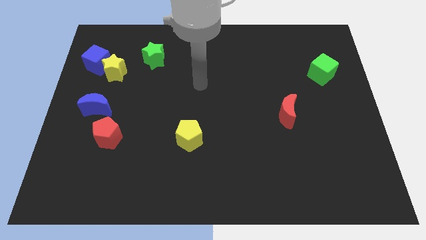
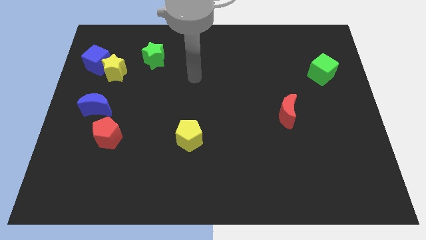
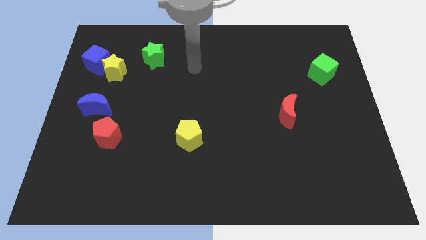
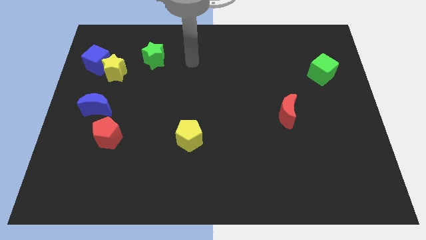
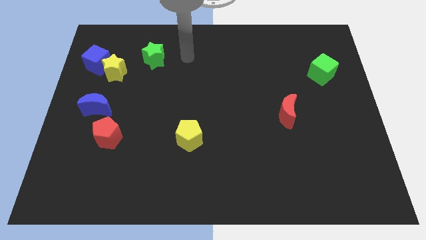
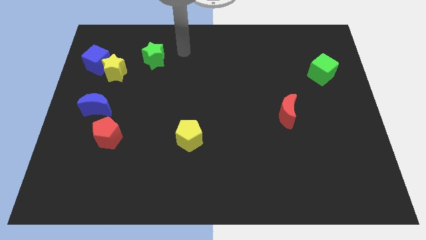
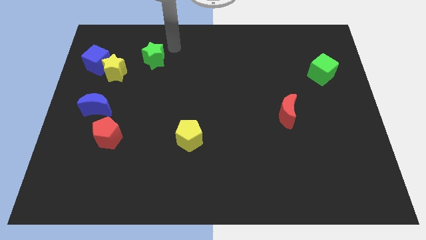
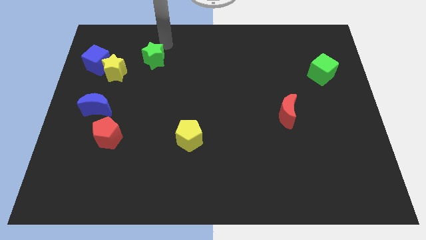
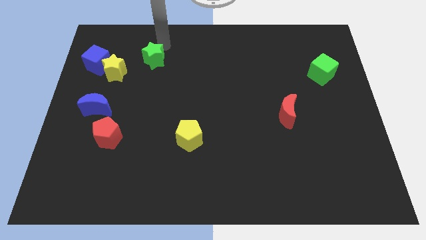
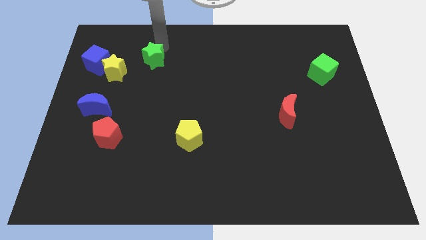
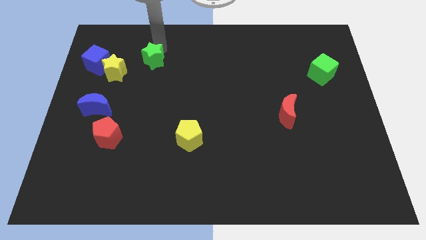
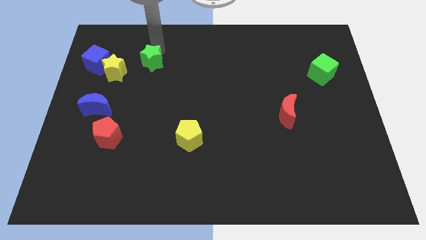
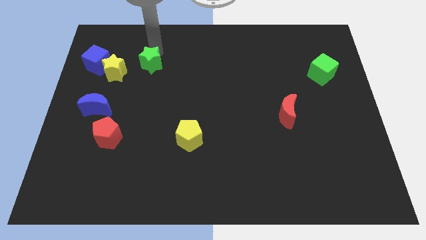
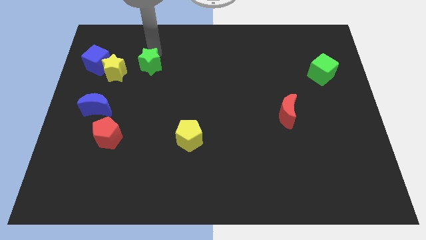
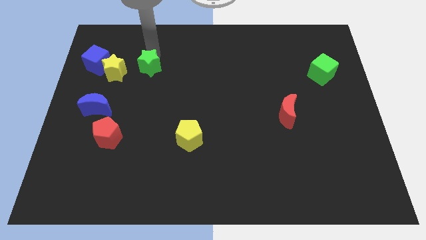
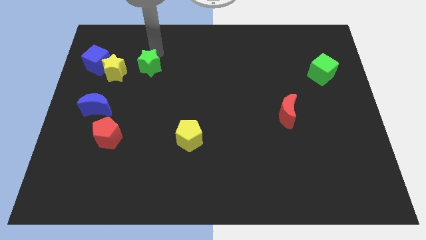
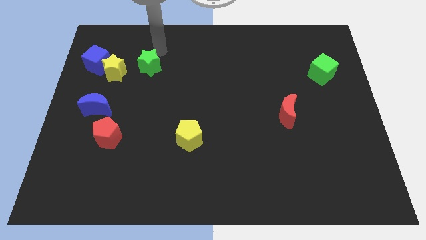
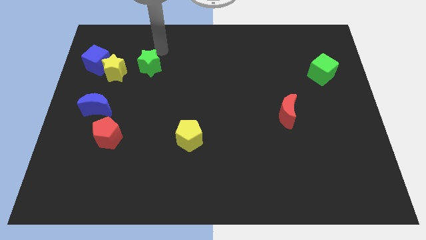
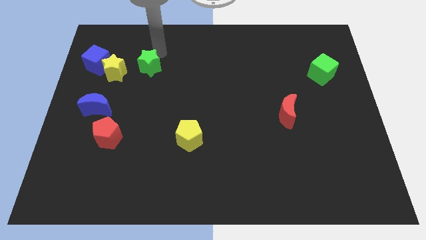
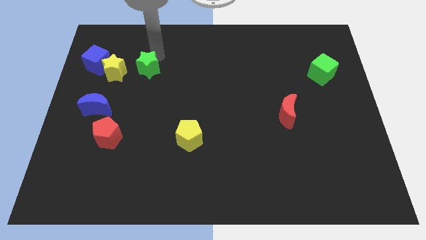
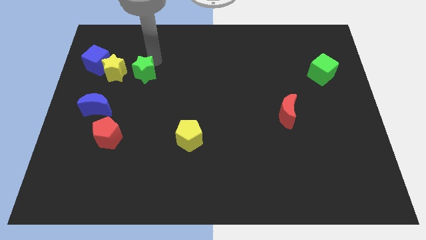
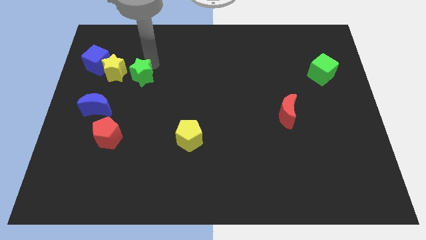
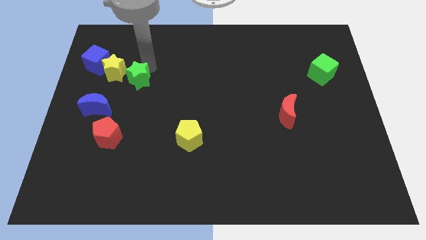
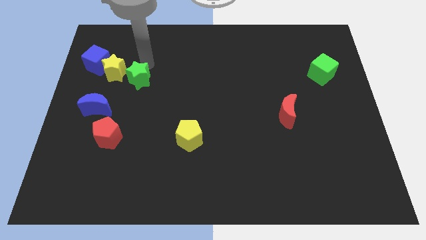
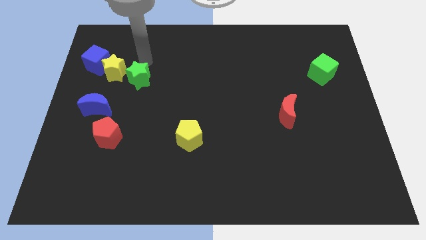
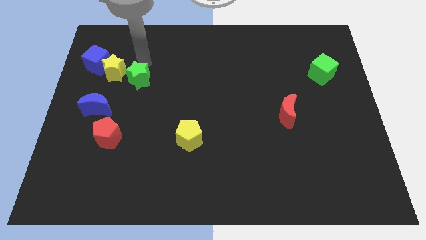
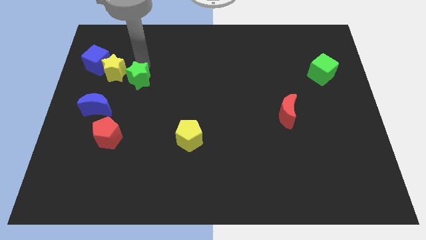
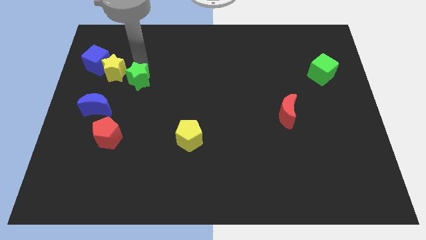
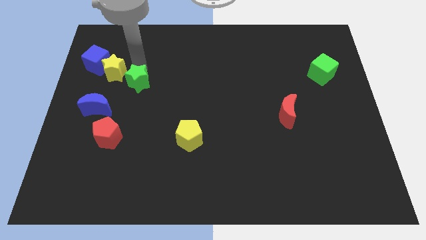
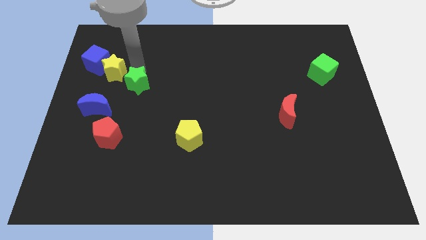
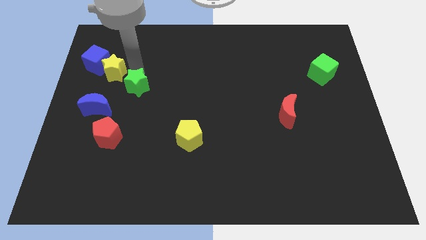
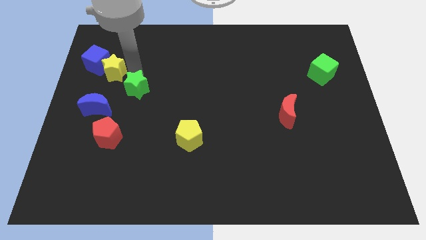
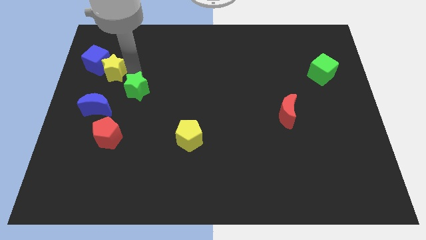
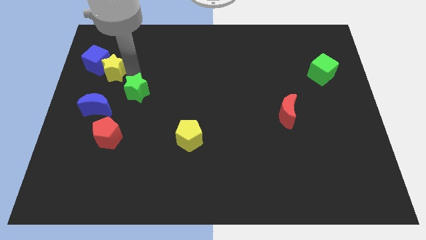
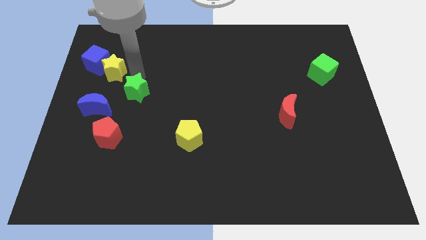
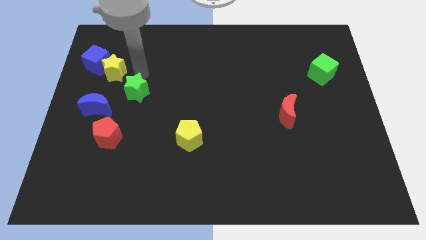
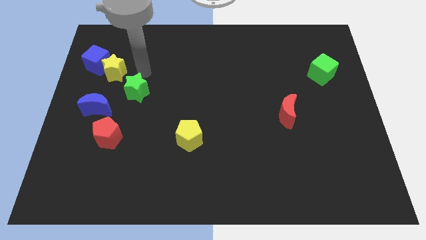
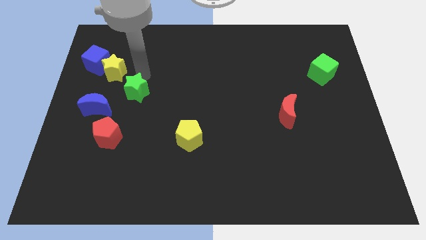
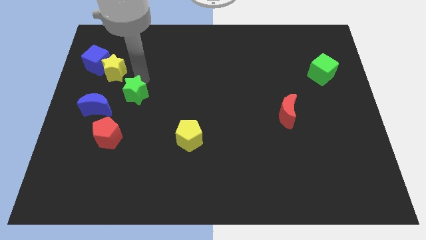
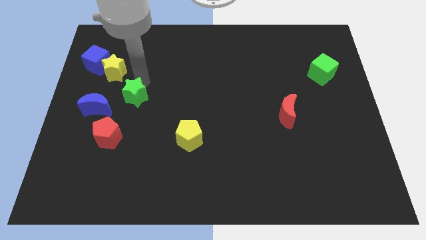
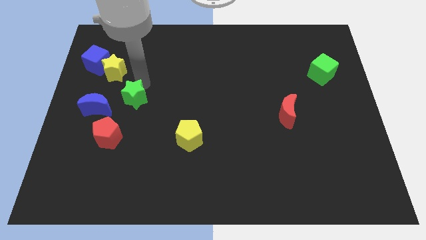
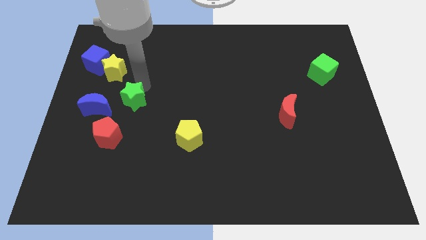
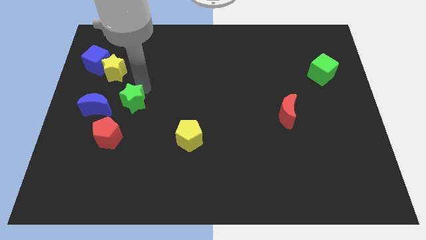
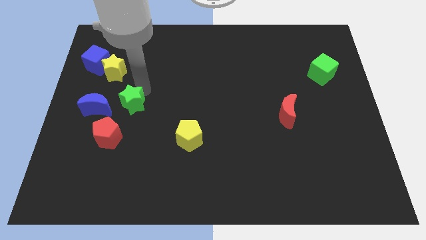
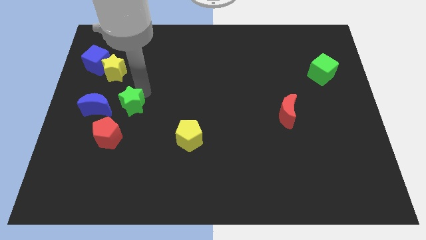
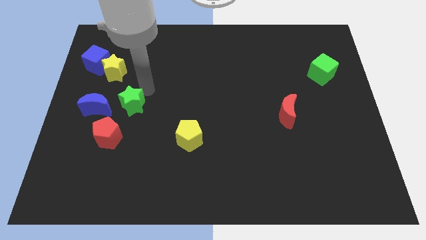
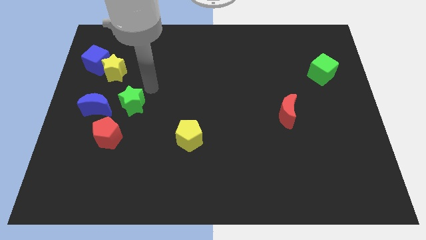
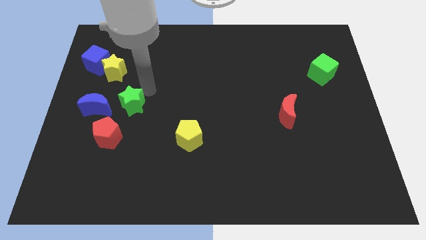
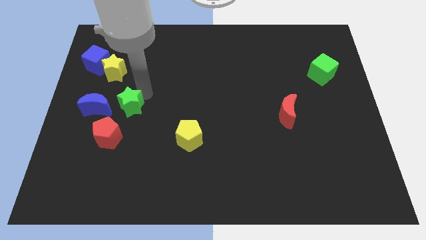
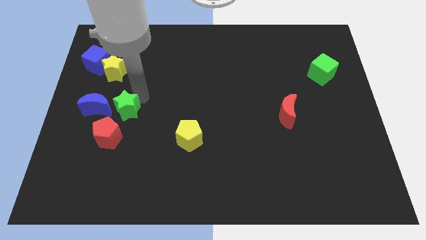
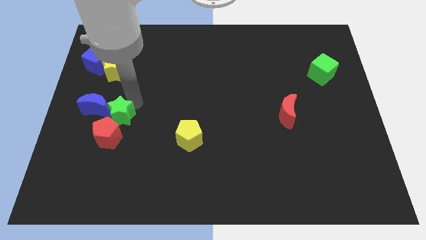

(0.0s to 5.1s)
put the green star towards the red pentagon

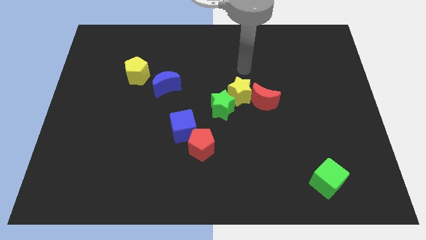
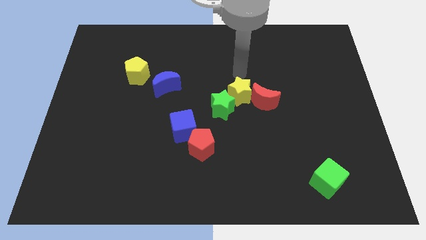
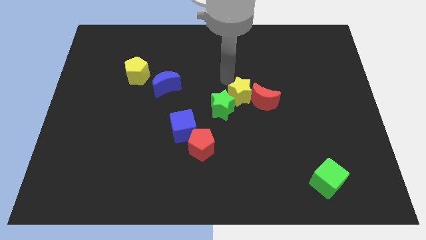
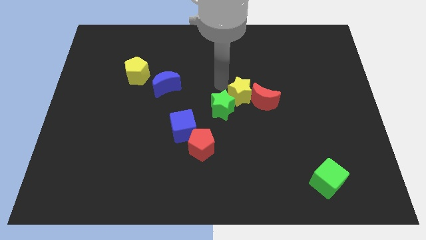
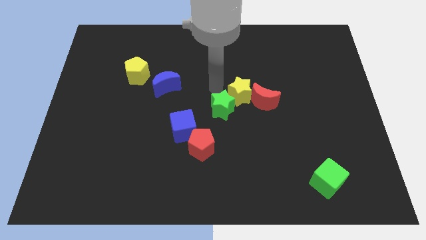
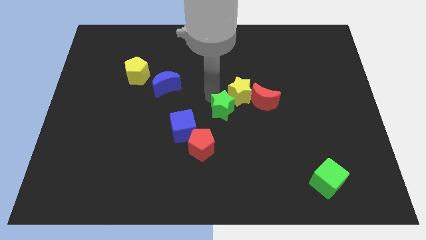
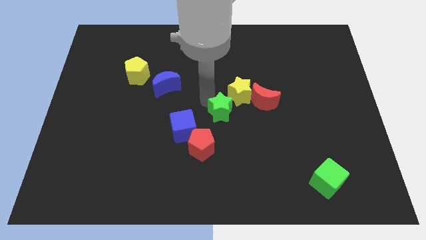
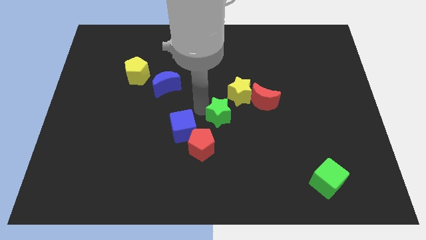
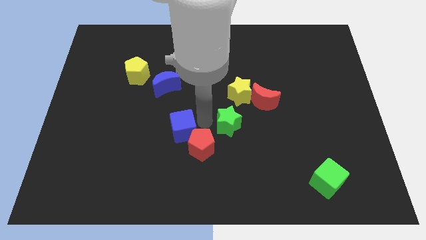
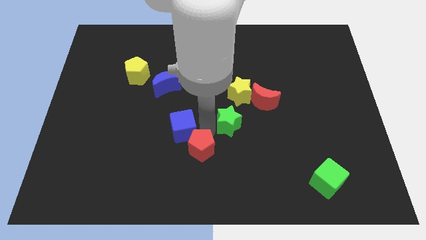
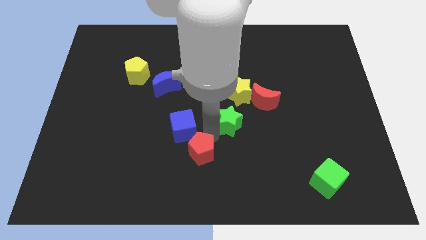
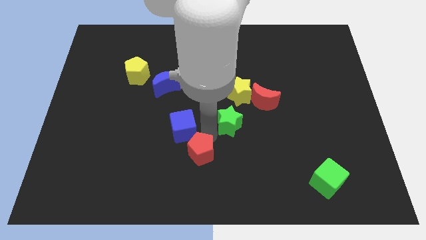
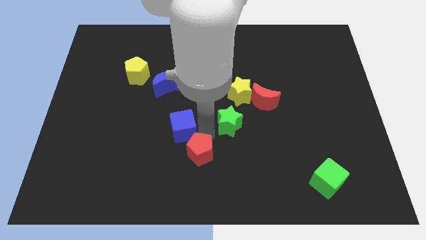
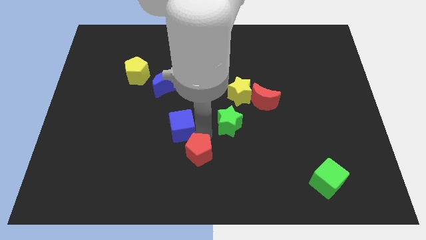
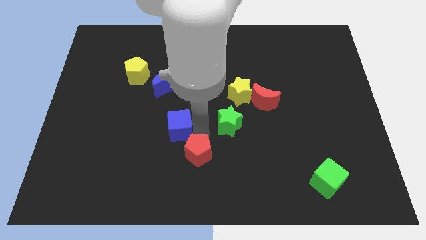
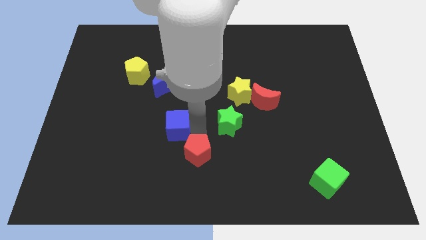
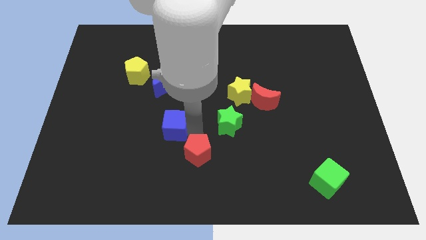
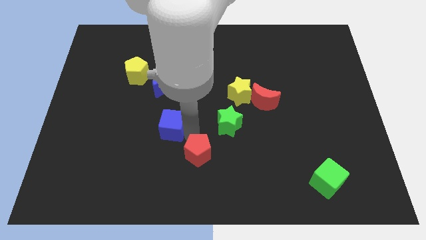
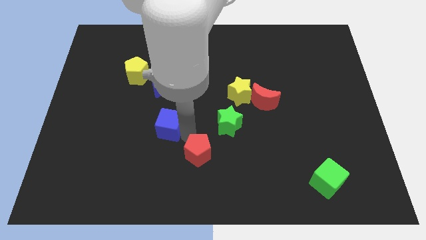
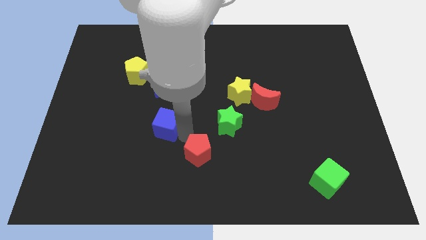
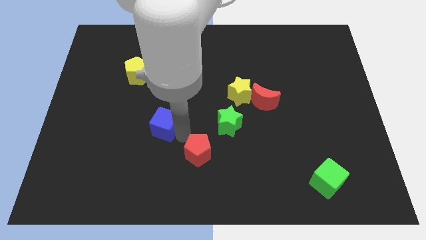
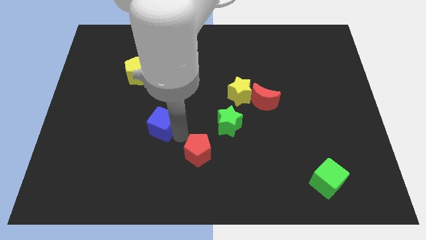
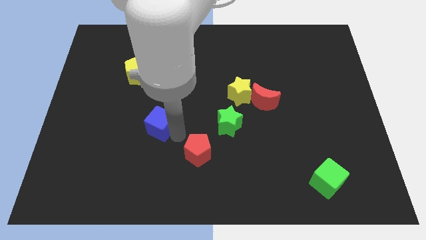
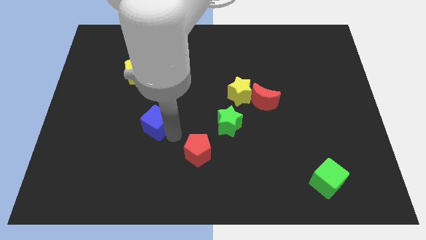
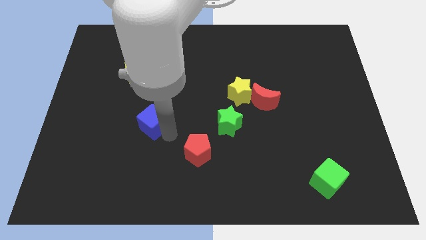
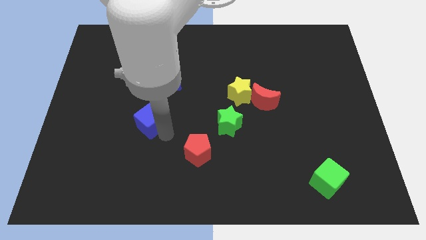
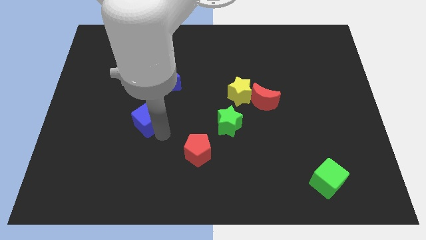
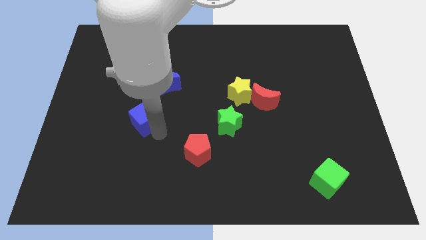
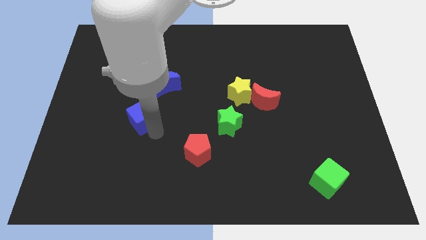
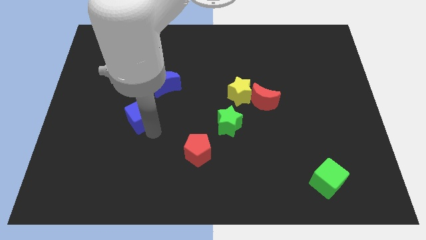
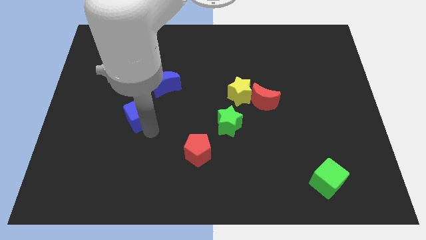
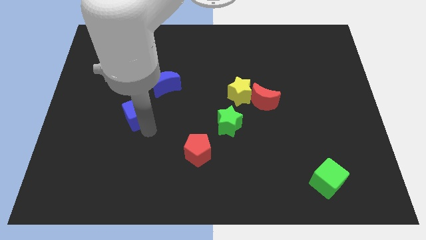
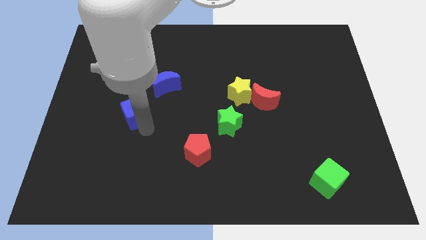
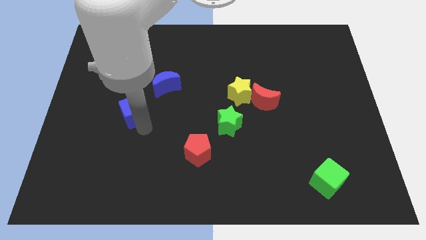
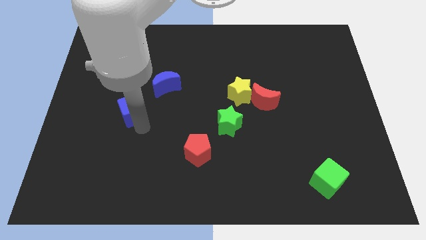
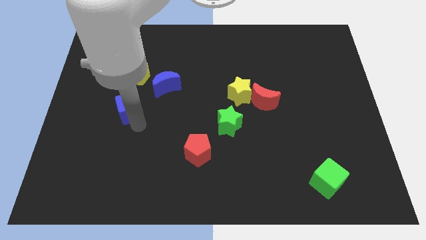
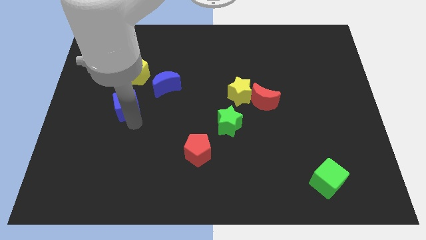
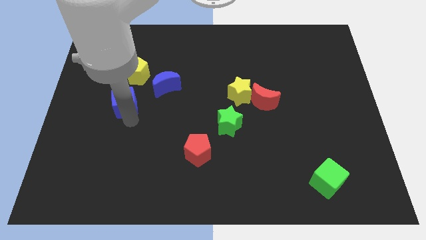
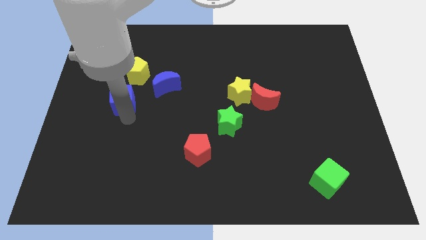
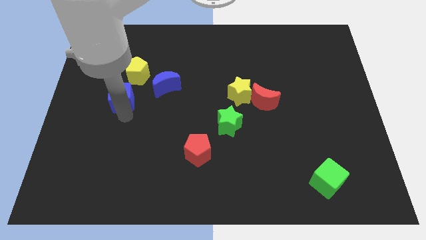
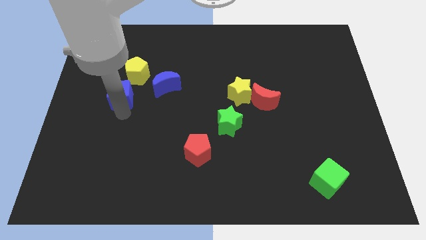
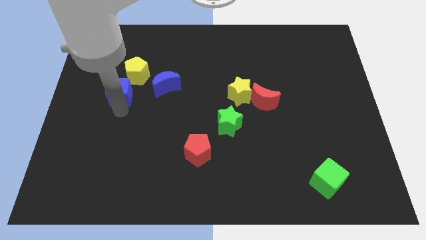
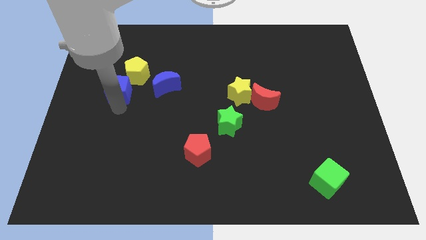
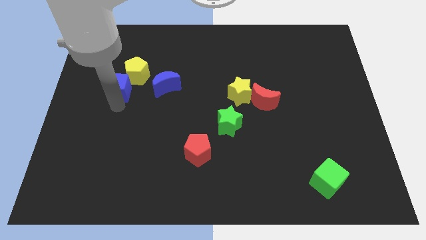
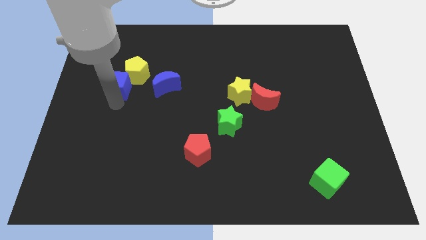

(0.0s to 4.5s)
slide the blue cube close to the yellow pentagon
